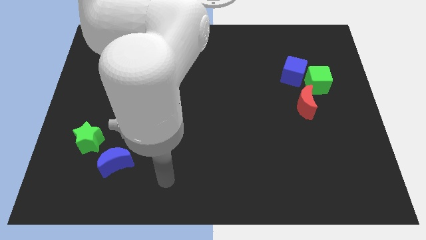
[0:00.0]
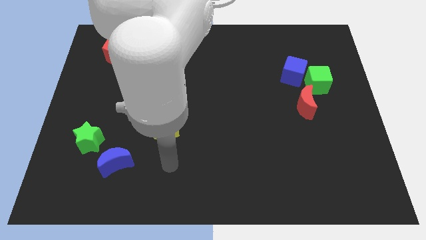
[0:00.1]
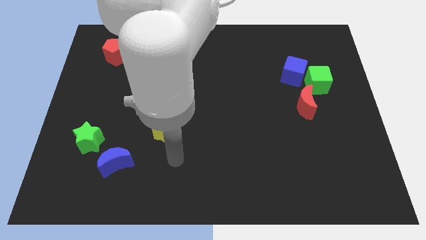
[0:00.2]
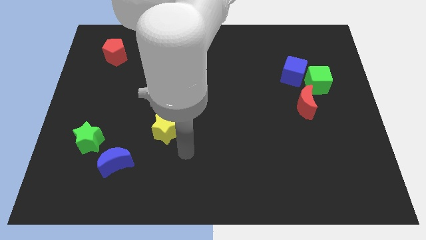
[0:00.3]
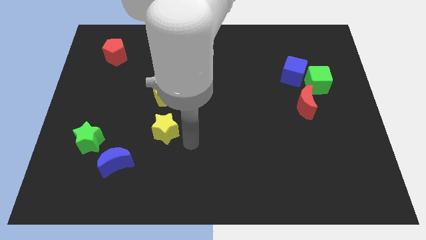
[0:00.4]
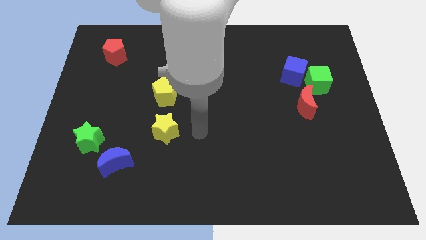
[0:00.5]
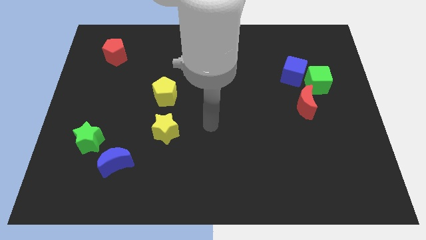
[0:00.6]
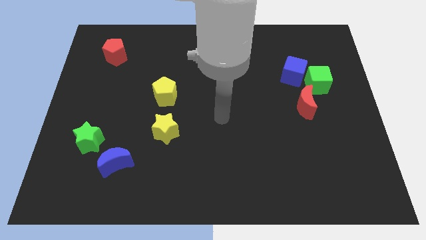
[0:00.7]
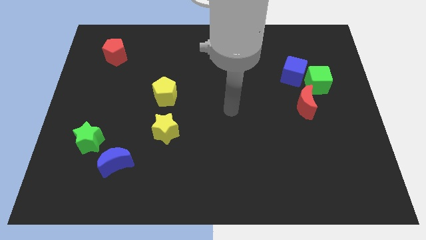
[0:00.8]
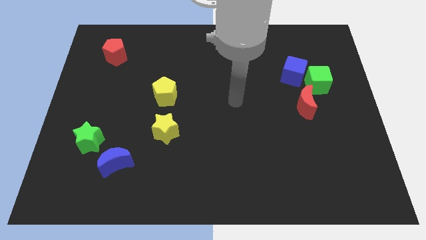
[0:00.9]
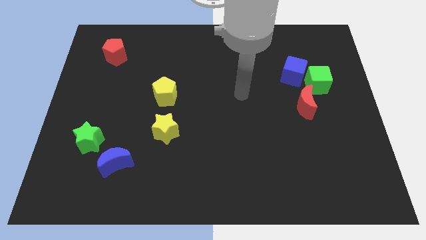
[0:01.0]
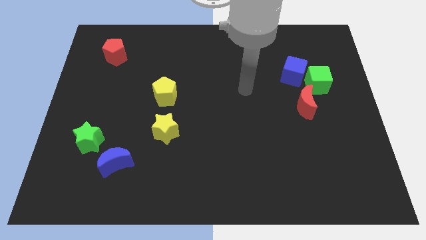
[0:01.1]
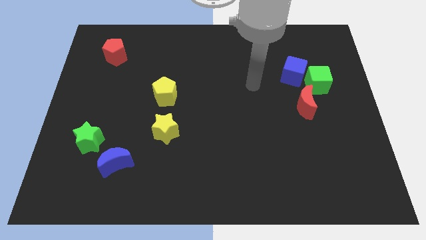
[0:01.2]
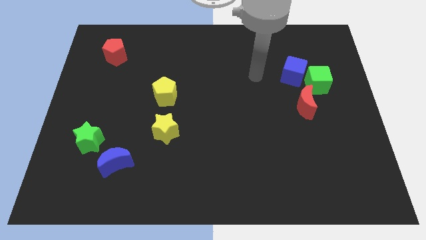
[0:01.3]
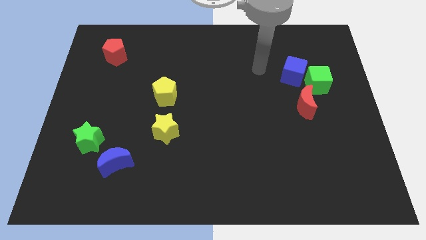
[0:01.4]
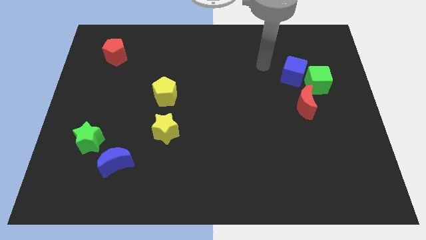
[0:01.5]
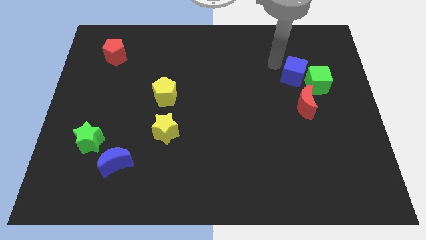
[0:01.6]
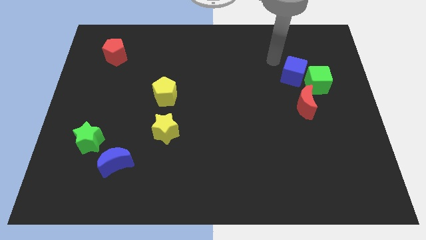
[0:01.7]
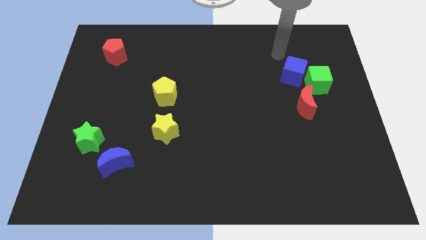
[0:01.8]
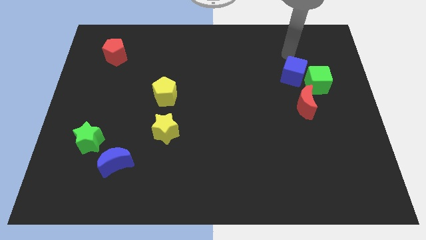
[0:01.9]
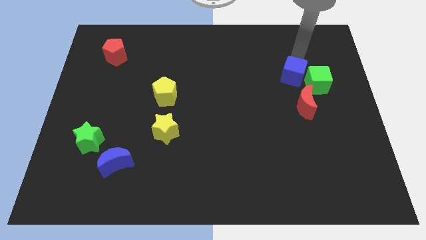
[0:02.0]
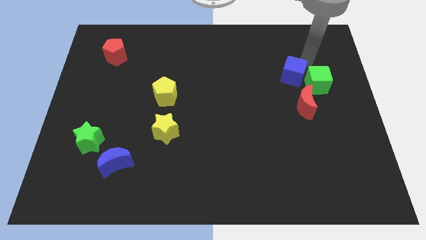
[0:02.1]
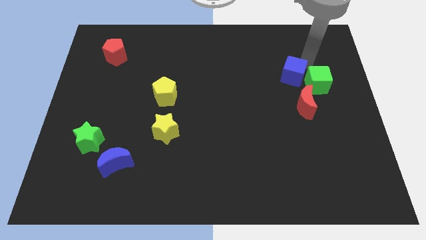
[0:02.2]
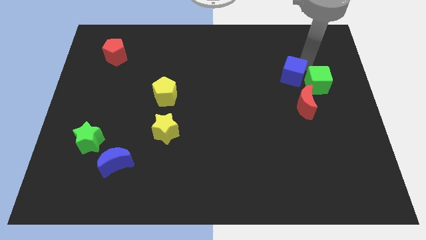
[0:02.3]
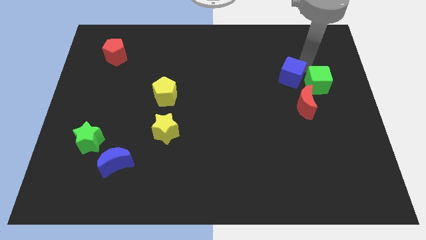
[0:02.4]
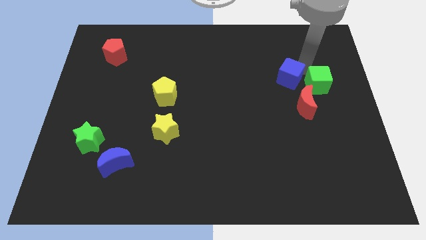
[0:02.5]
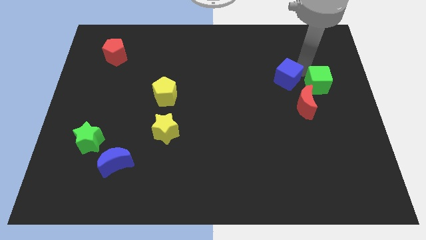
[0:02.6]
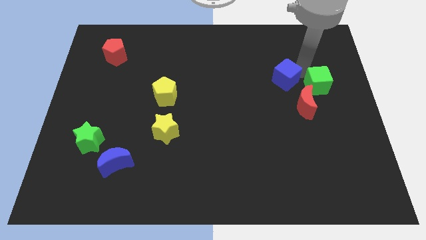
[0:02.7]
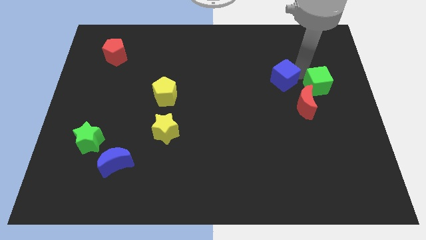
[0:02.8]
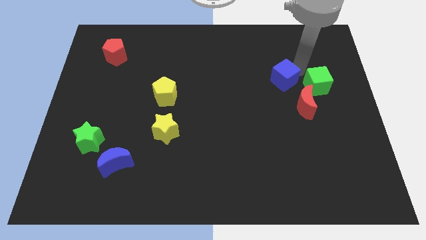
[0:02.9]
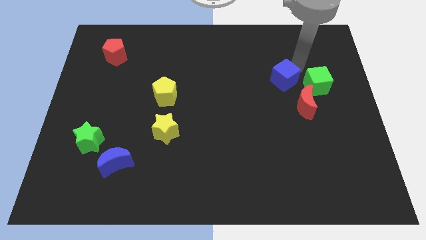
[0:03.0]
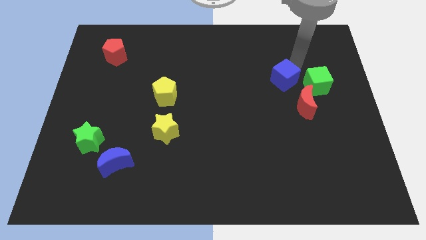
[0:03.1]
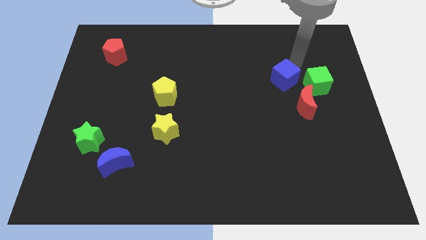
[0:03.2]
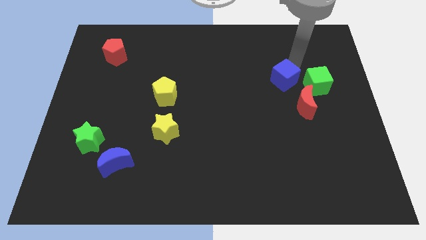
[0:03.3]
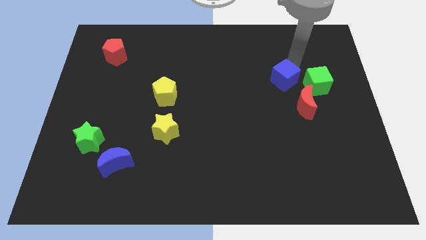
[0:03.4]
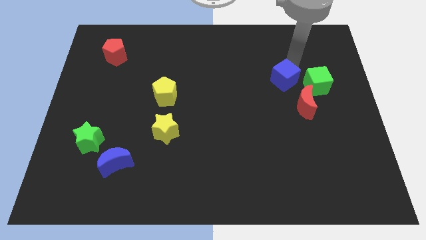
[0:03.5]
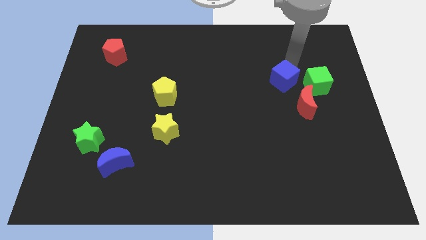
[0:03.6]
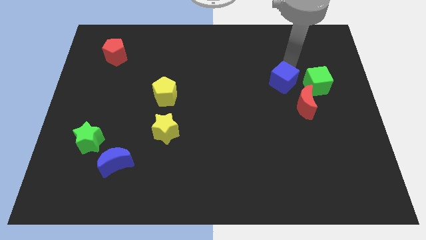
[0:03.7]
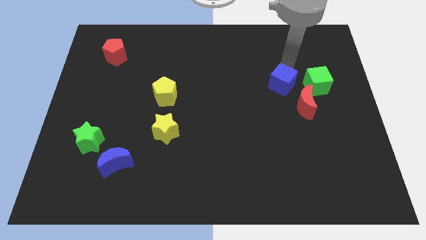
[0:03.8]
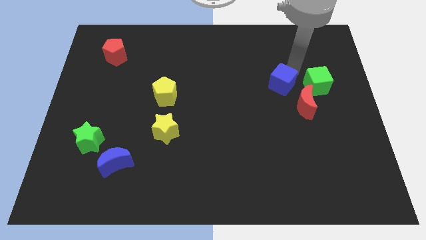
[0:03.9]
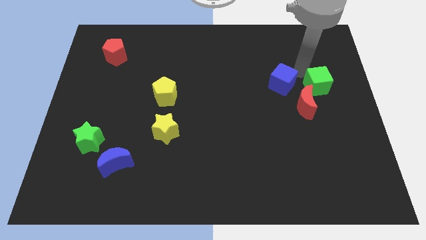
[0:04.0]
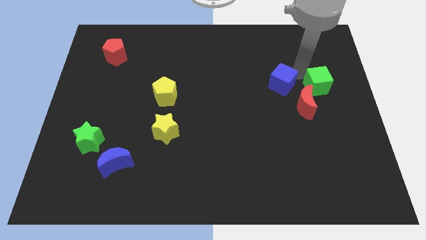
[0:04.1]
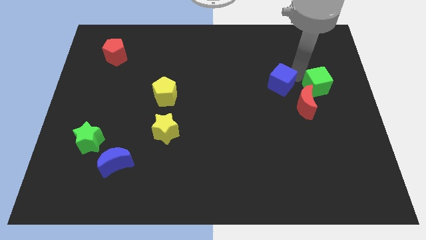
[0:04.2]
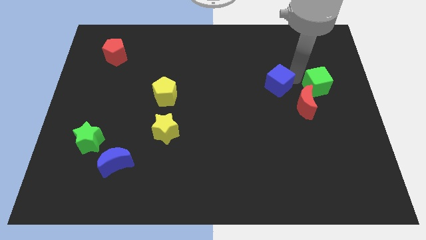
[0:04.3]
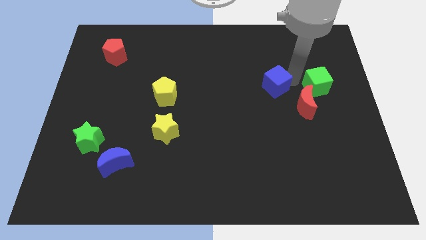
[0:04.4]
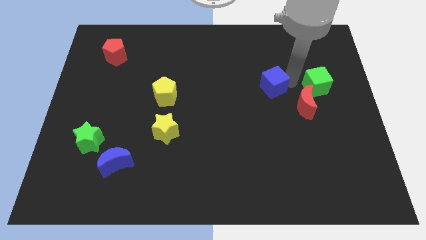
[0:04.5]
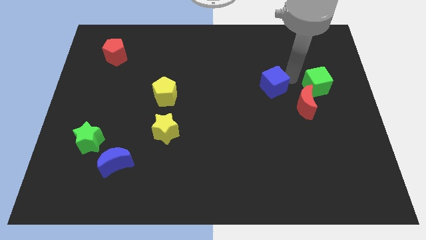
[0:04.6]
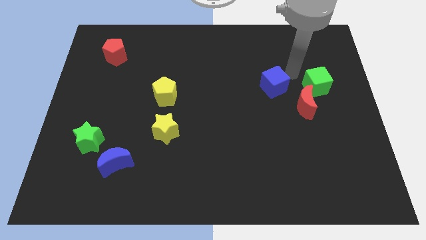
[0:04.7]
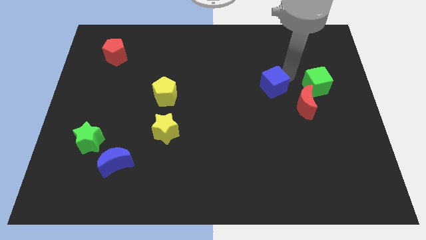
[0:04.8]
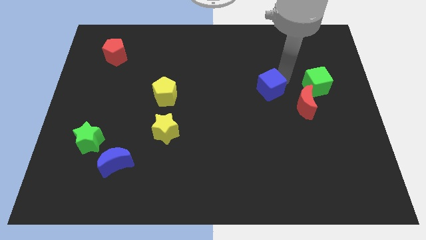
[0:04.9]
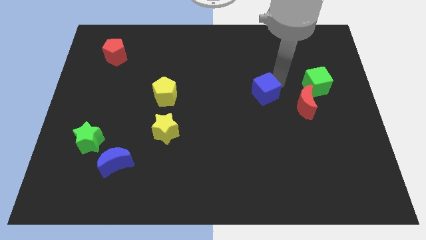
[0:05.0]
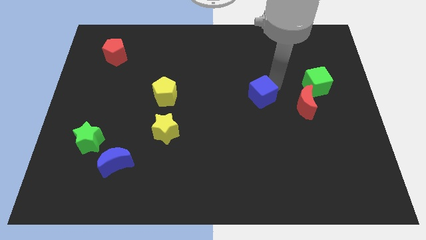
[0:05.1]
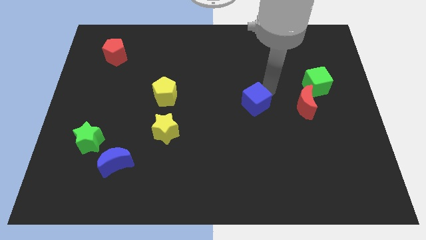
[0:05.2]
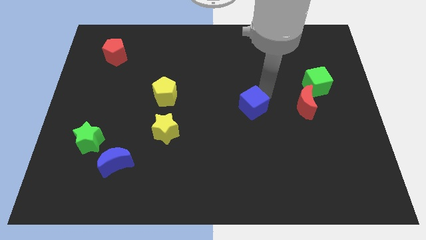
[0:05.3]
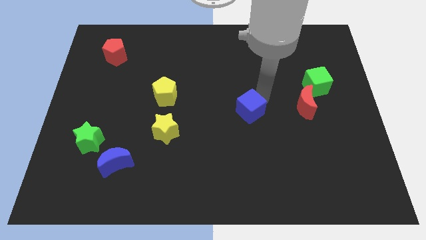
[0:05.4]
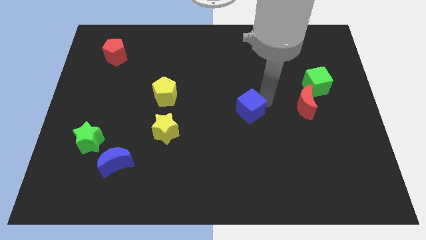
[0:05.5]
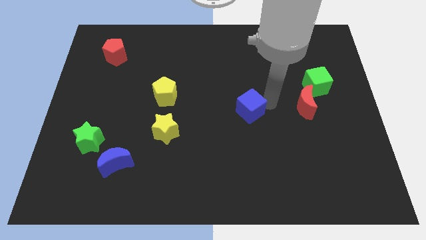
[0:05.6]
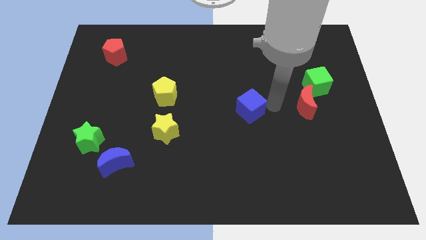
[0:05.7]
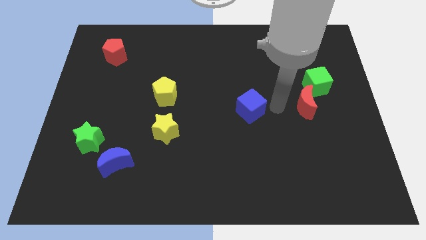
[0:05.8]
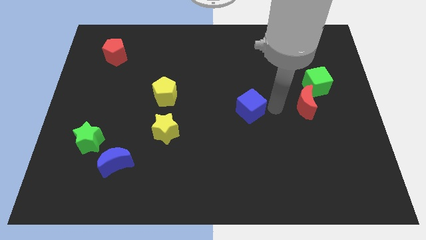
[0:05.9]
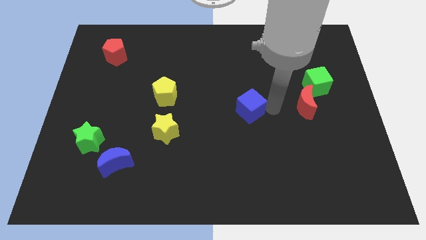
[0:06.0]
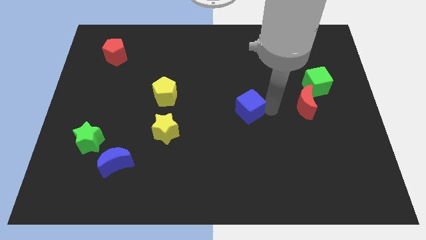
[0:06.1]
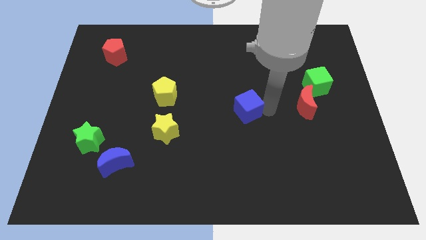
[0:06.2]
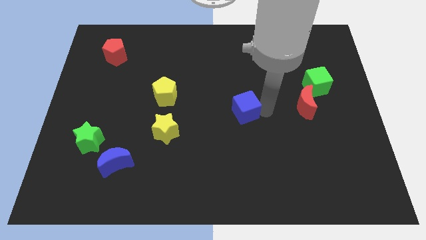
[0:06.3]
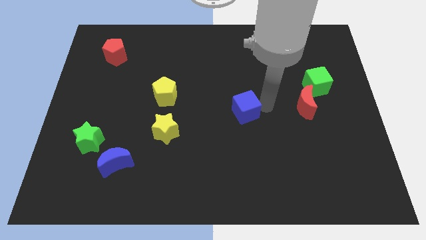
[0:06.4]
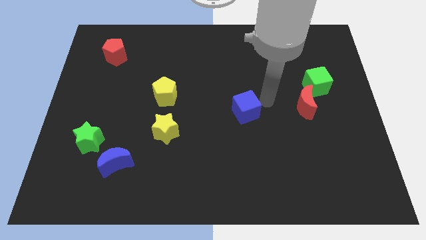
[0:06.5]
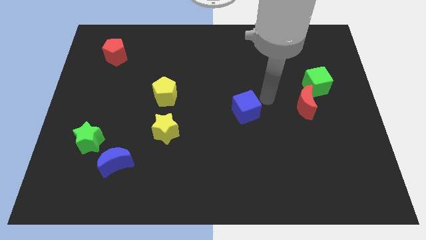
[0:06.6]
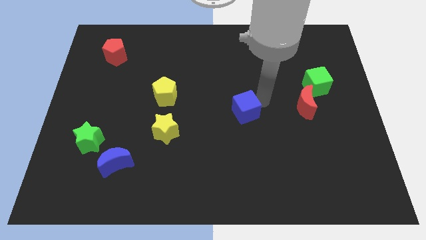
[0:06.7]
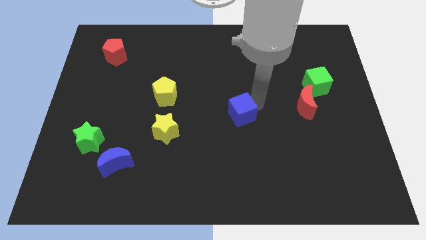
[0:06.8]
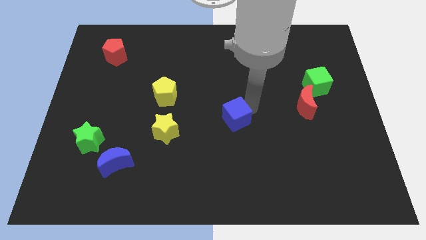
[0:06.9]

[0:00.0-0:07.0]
push the blue cube down and left

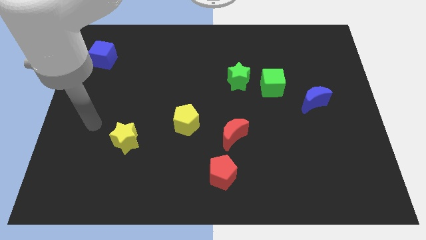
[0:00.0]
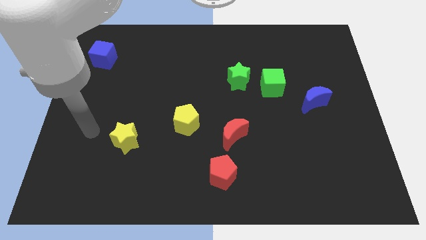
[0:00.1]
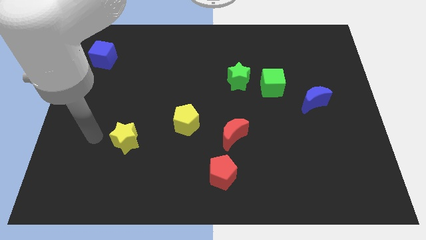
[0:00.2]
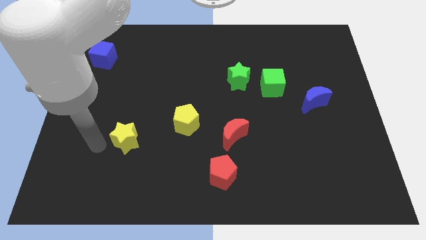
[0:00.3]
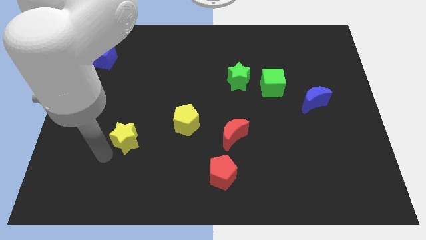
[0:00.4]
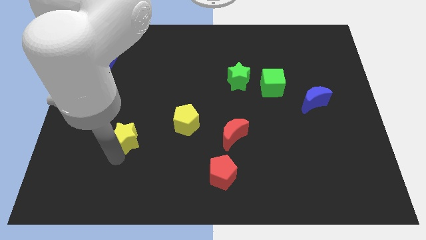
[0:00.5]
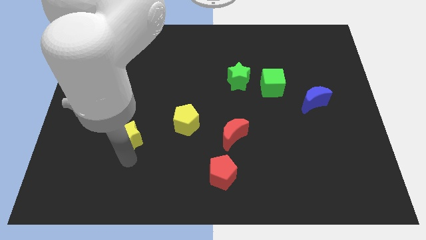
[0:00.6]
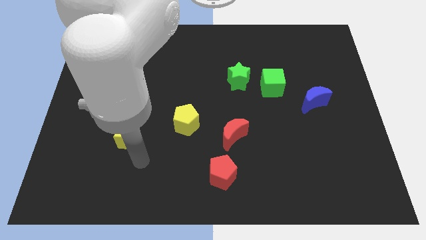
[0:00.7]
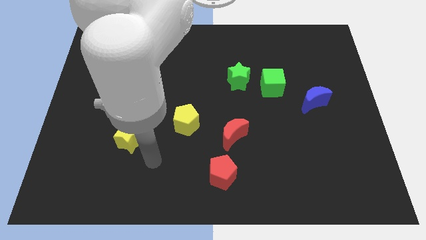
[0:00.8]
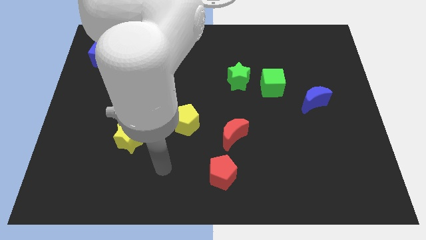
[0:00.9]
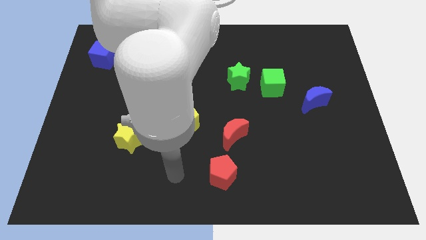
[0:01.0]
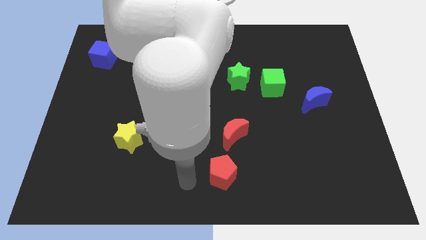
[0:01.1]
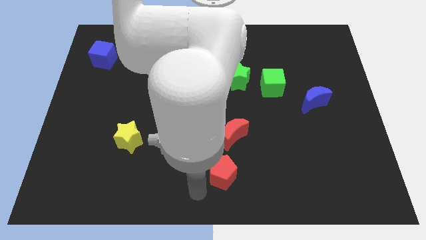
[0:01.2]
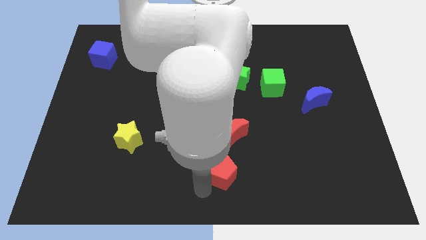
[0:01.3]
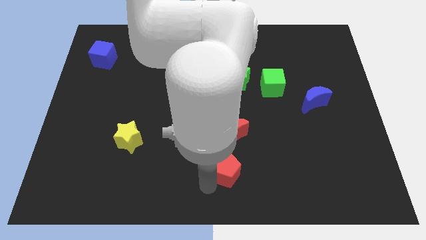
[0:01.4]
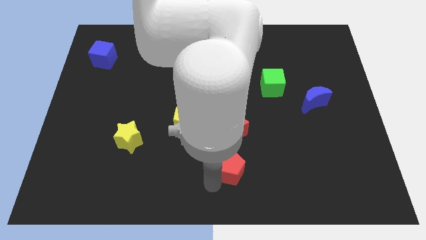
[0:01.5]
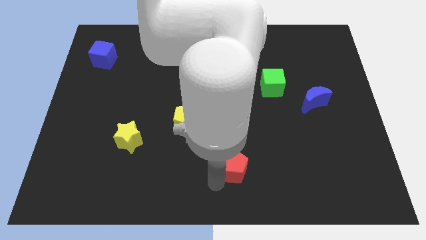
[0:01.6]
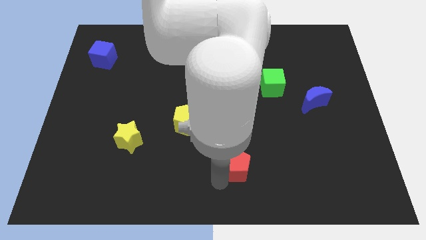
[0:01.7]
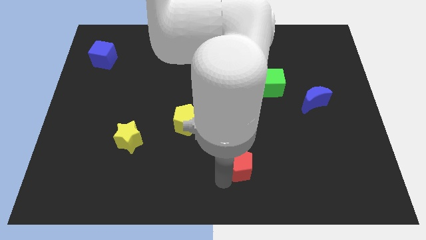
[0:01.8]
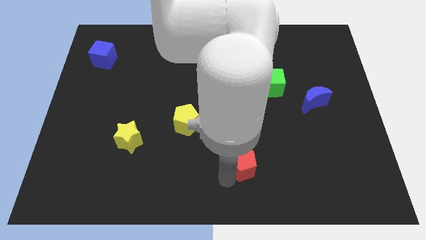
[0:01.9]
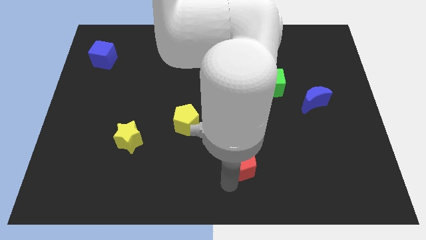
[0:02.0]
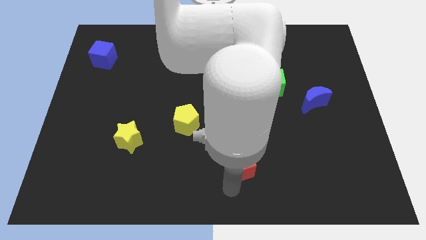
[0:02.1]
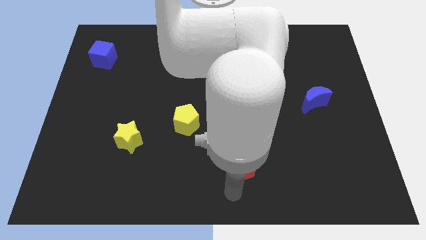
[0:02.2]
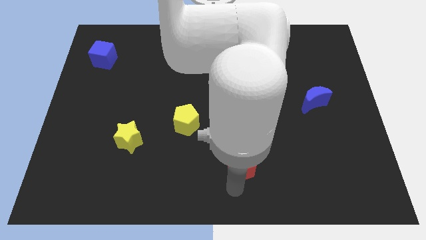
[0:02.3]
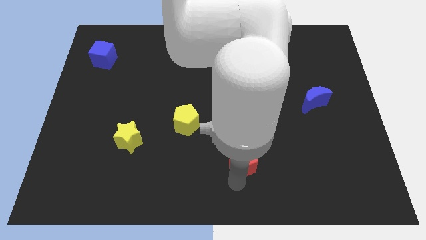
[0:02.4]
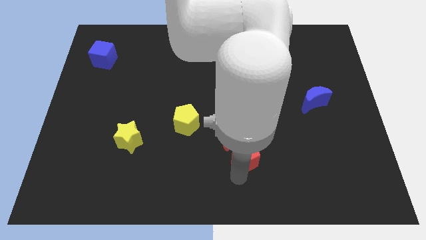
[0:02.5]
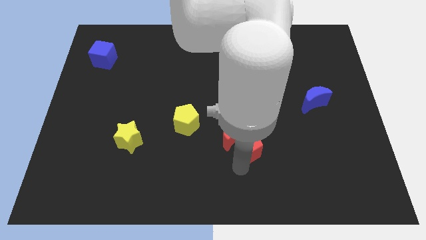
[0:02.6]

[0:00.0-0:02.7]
push the red pentagon up and then right a little bit
